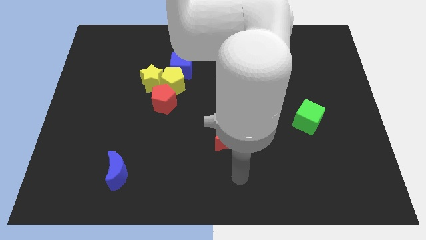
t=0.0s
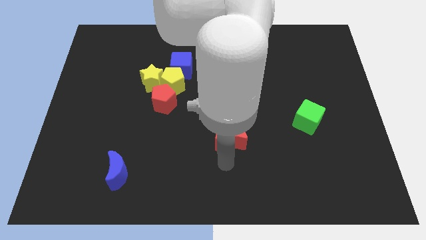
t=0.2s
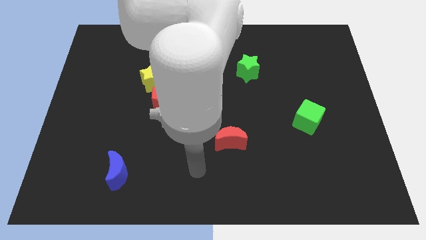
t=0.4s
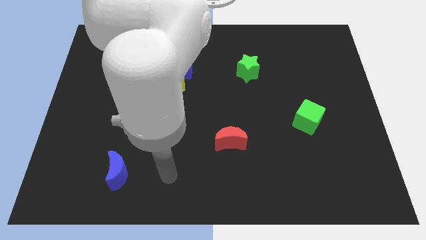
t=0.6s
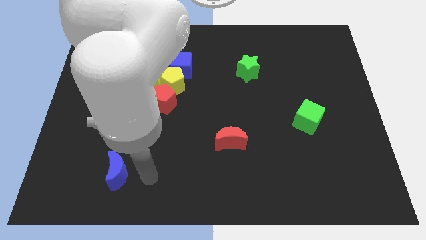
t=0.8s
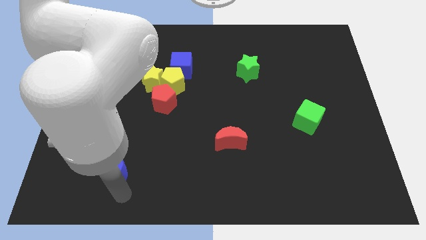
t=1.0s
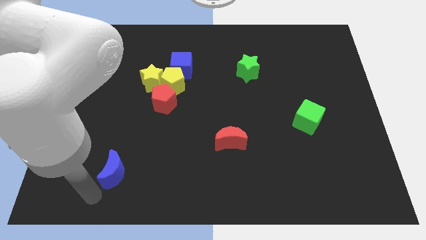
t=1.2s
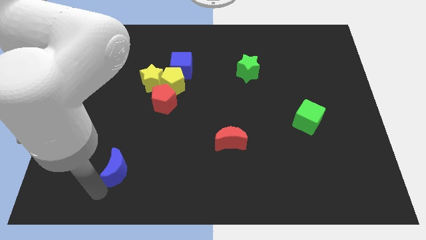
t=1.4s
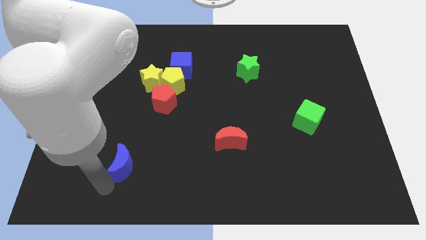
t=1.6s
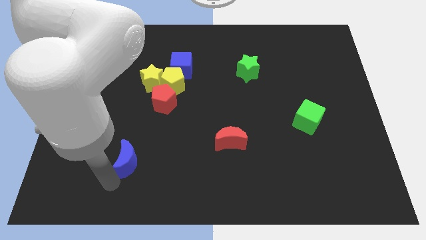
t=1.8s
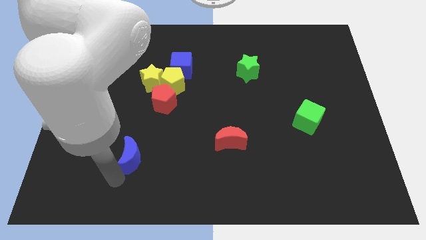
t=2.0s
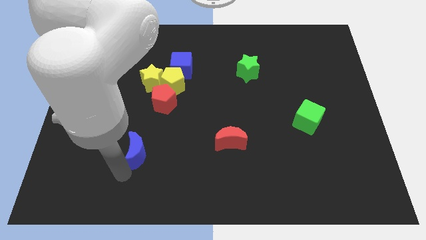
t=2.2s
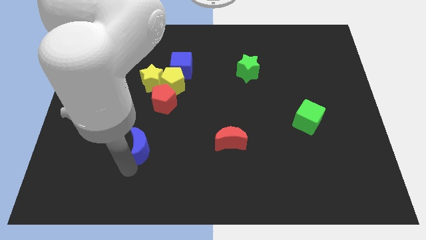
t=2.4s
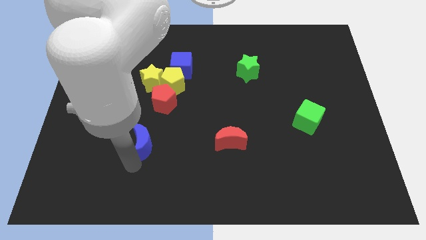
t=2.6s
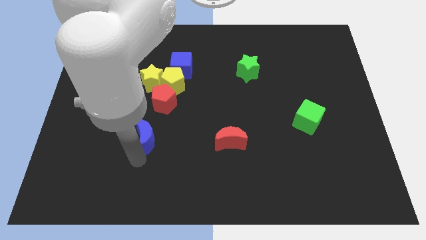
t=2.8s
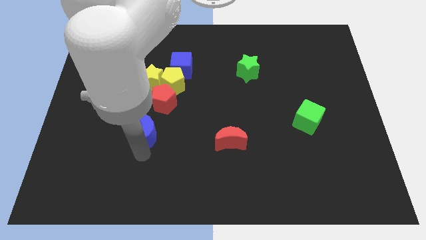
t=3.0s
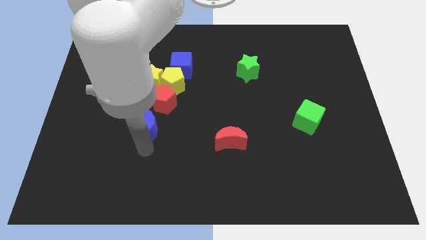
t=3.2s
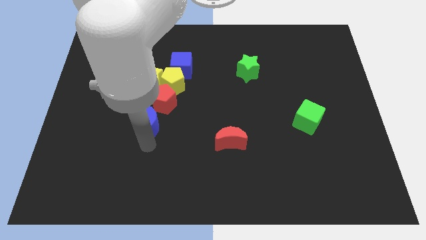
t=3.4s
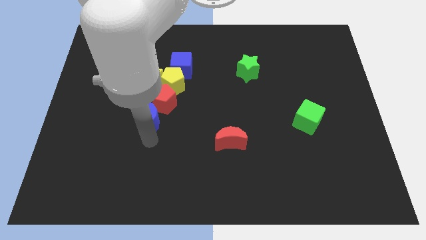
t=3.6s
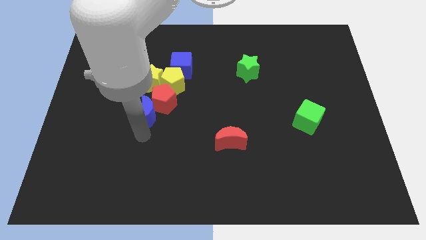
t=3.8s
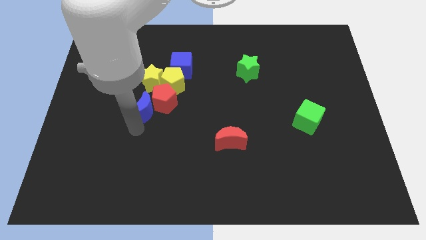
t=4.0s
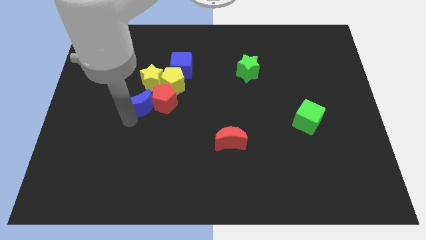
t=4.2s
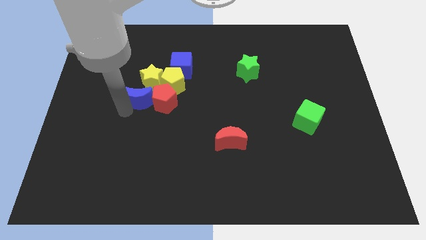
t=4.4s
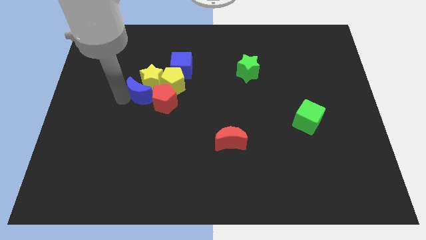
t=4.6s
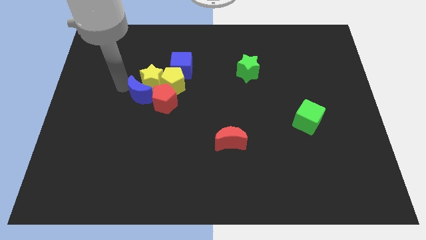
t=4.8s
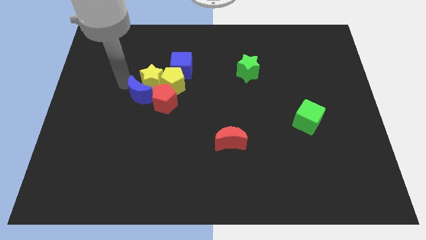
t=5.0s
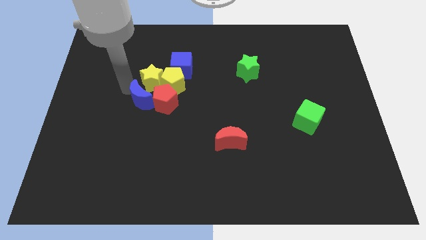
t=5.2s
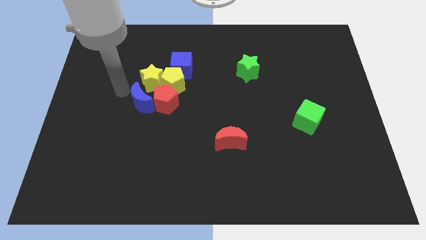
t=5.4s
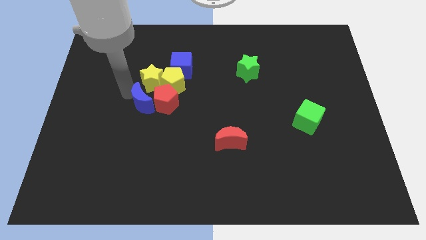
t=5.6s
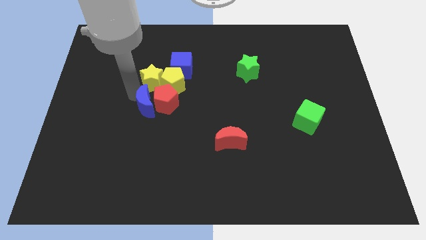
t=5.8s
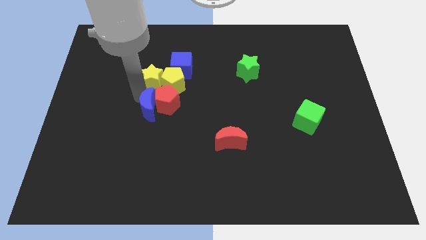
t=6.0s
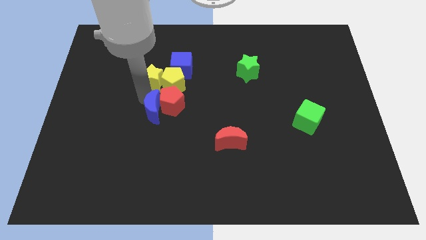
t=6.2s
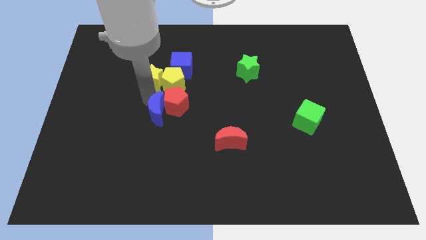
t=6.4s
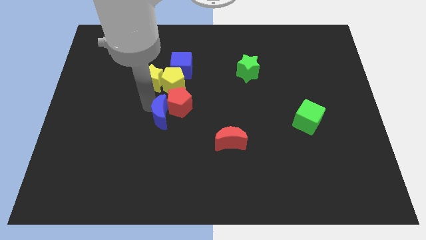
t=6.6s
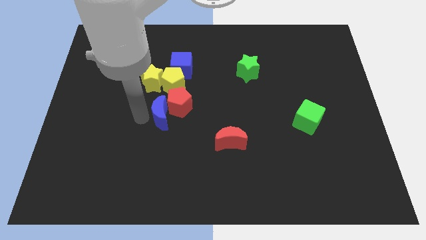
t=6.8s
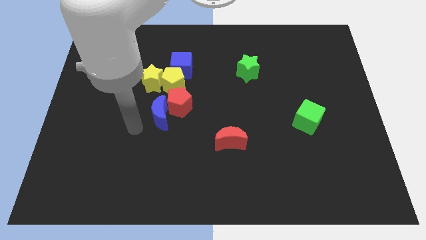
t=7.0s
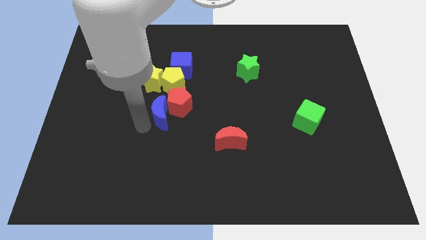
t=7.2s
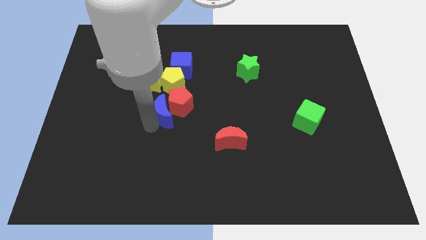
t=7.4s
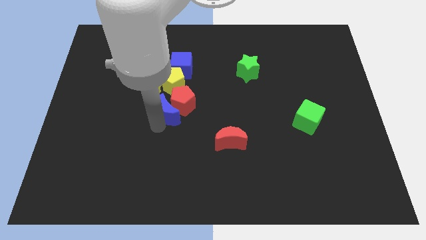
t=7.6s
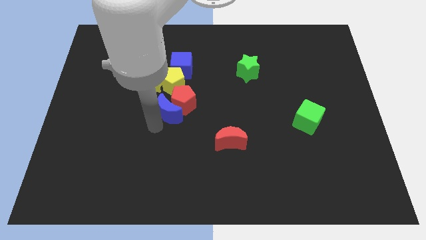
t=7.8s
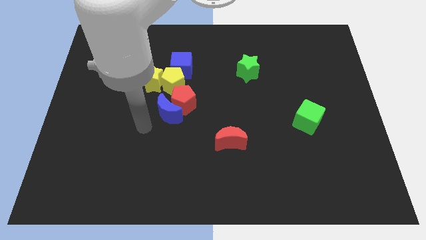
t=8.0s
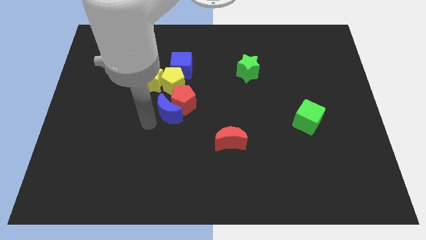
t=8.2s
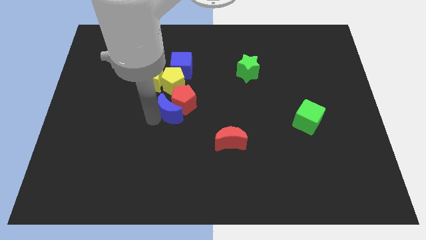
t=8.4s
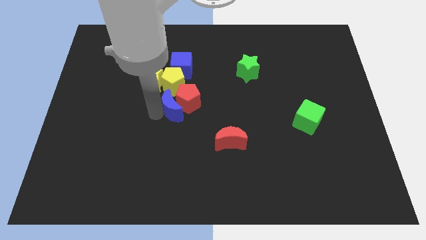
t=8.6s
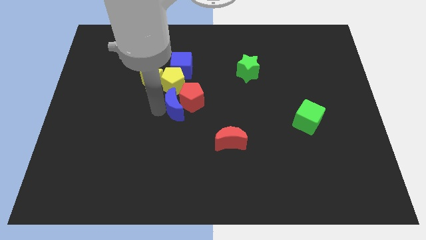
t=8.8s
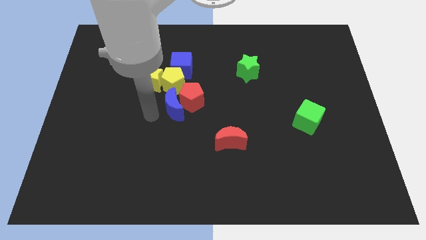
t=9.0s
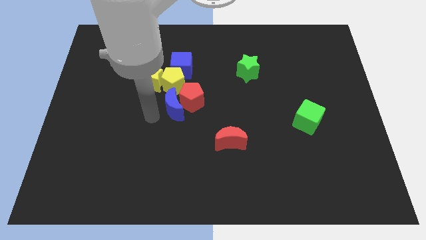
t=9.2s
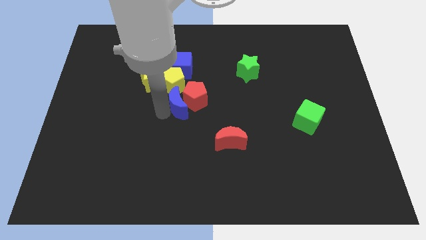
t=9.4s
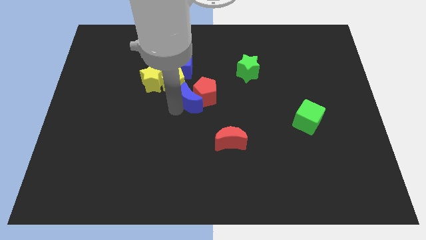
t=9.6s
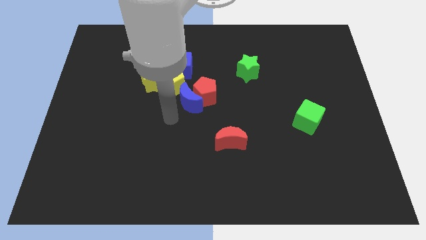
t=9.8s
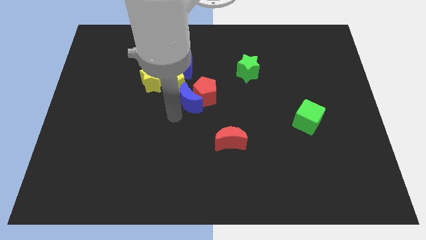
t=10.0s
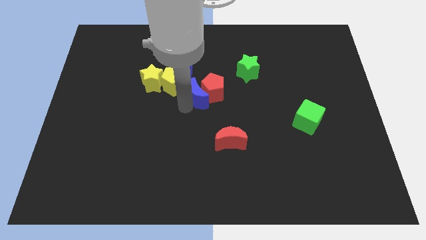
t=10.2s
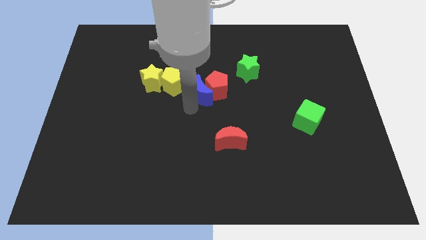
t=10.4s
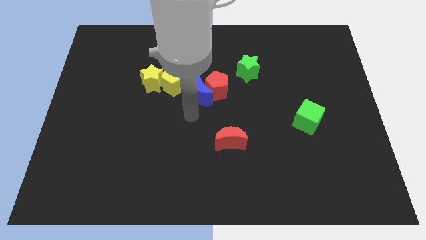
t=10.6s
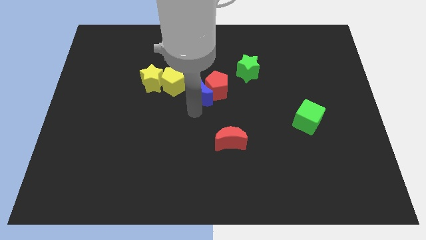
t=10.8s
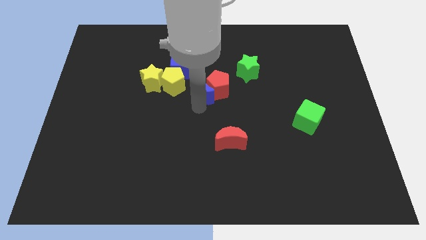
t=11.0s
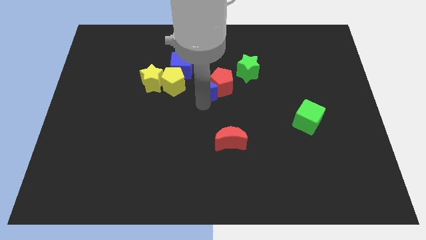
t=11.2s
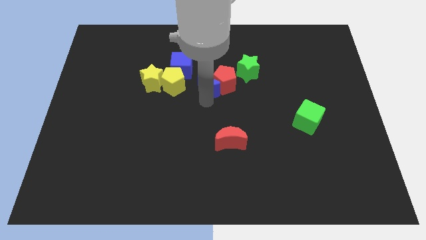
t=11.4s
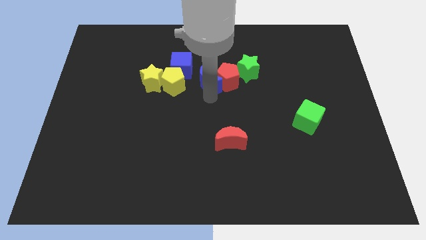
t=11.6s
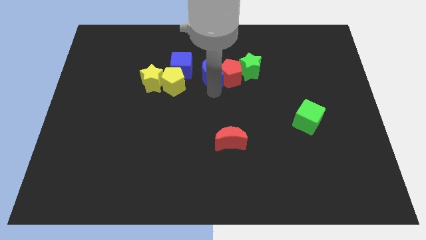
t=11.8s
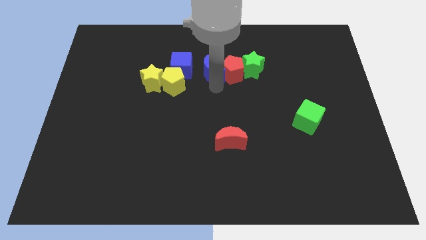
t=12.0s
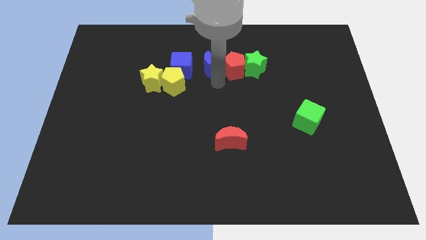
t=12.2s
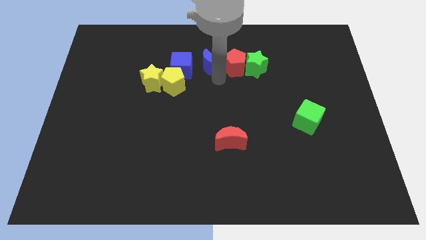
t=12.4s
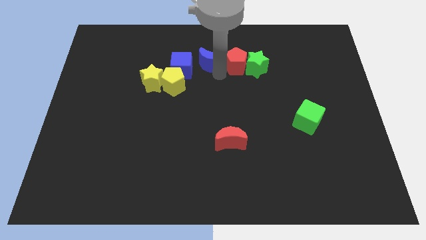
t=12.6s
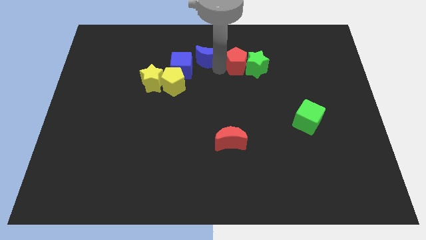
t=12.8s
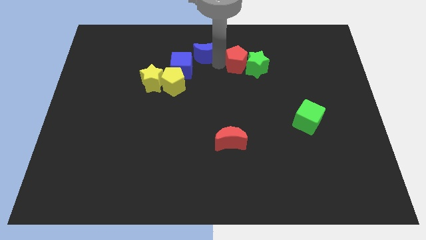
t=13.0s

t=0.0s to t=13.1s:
put the blue moon to the top
